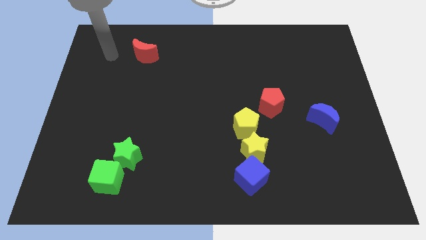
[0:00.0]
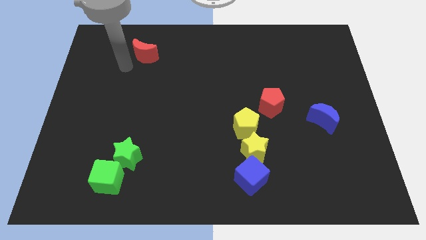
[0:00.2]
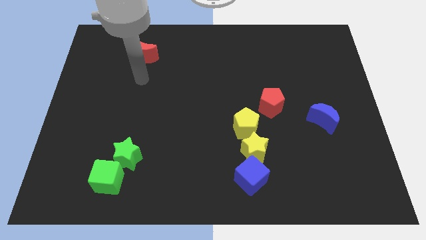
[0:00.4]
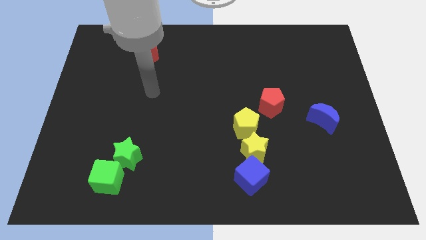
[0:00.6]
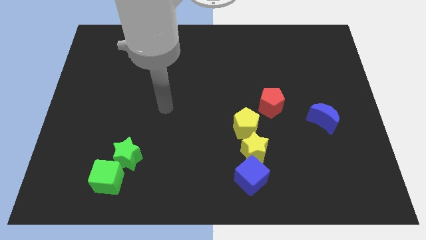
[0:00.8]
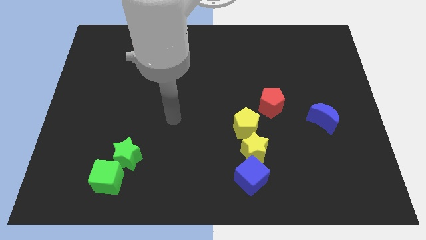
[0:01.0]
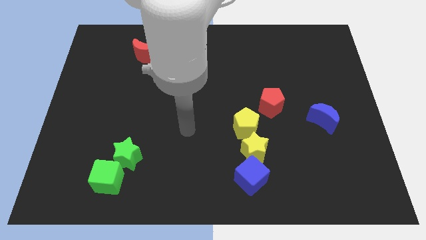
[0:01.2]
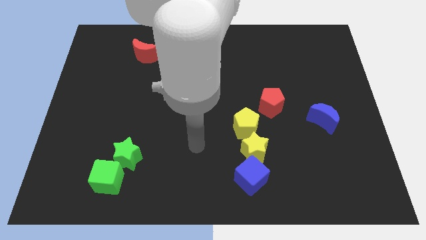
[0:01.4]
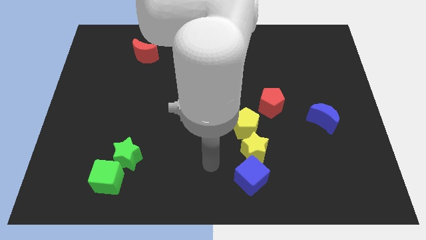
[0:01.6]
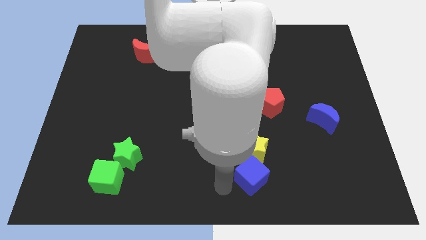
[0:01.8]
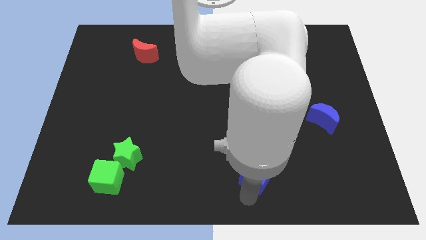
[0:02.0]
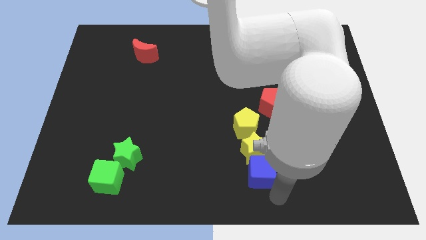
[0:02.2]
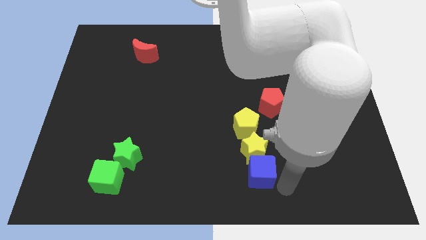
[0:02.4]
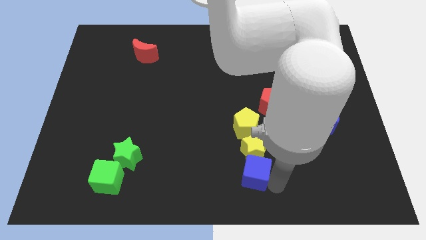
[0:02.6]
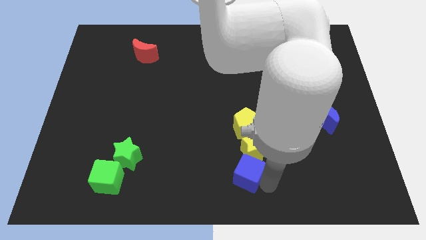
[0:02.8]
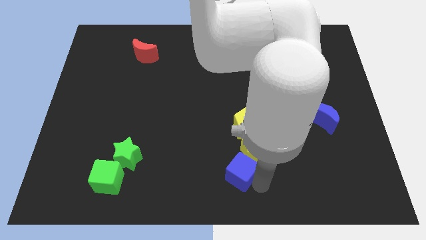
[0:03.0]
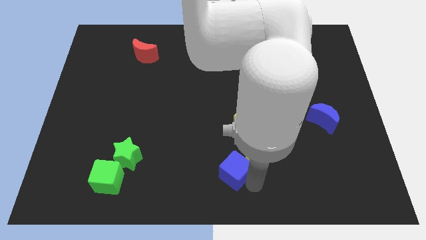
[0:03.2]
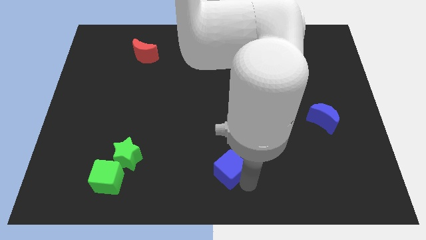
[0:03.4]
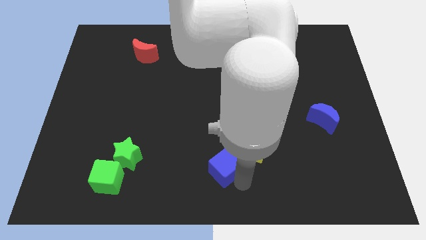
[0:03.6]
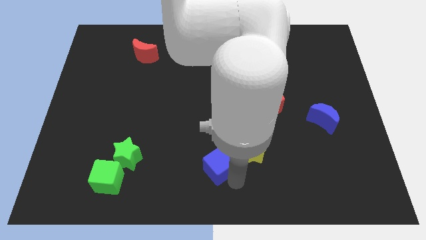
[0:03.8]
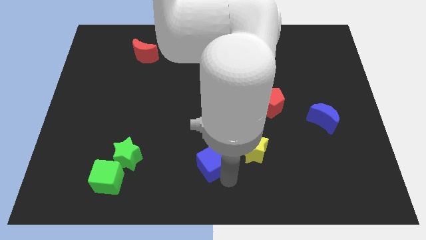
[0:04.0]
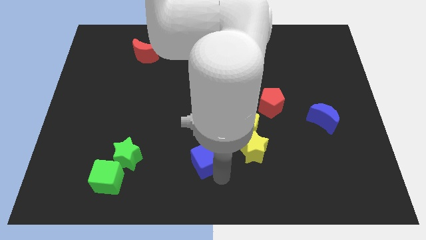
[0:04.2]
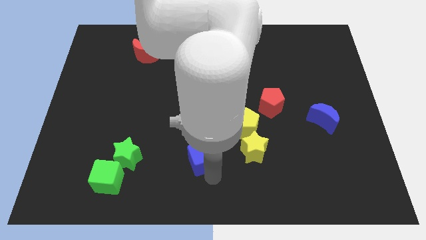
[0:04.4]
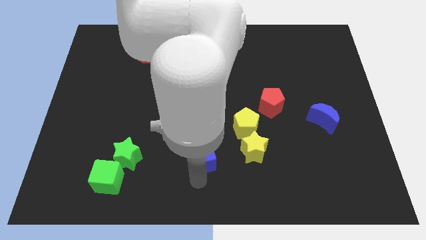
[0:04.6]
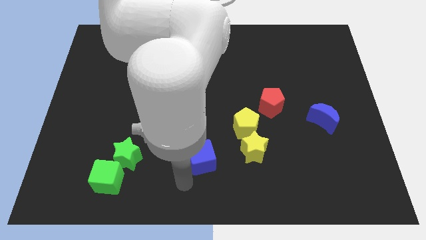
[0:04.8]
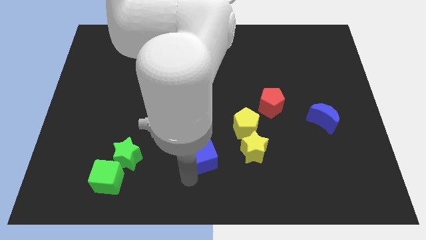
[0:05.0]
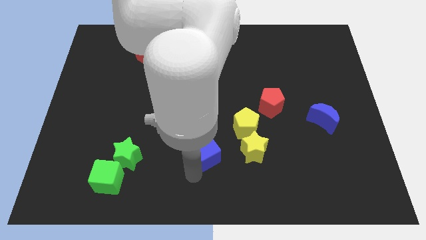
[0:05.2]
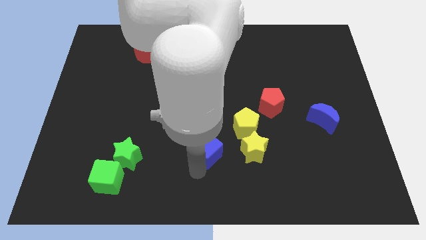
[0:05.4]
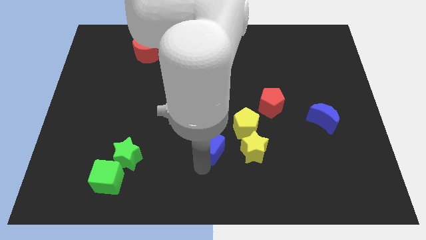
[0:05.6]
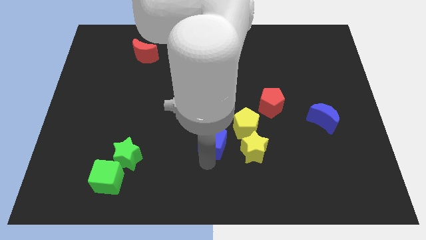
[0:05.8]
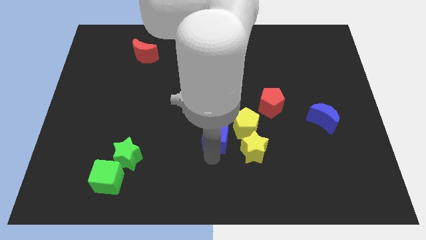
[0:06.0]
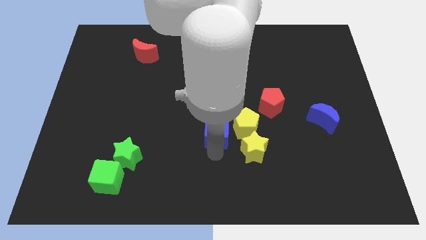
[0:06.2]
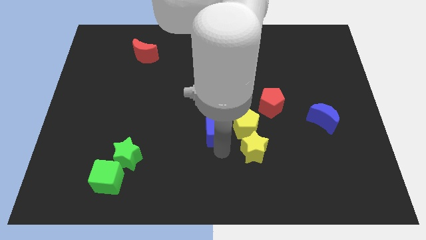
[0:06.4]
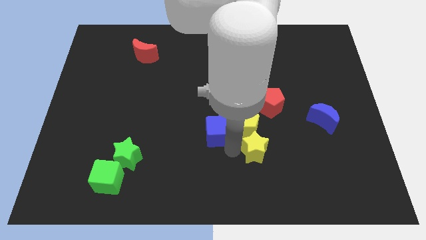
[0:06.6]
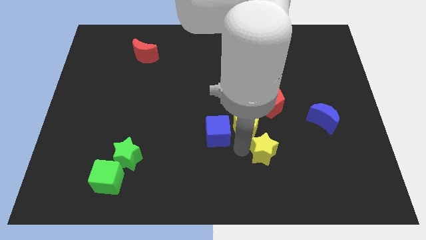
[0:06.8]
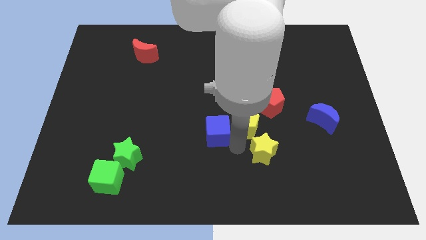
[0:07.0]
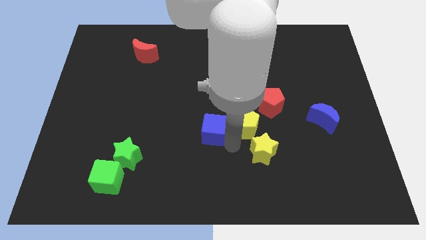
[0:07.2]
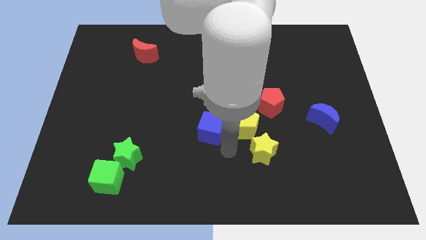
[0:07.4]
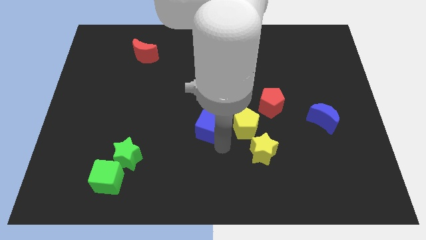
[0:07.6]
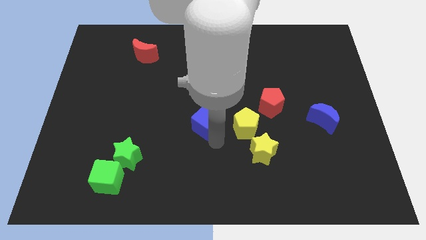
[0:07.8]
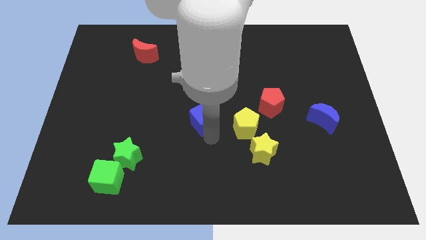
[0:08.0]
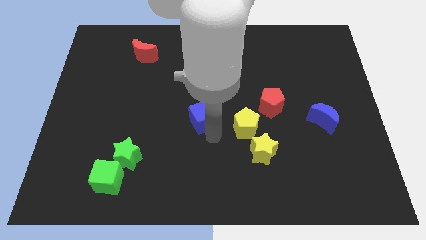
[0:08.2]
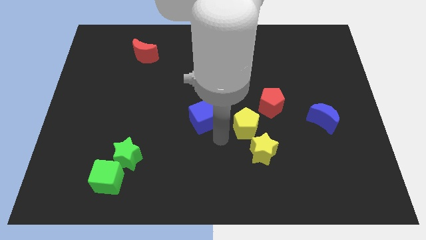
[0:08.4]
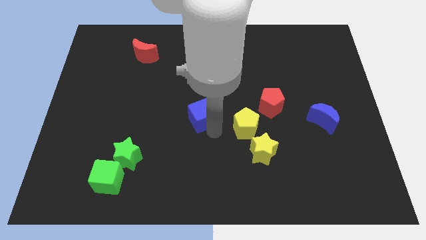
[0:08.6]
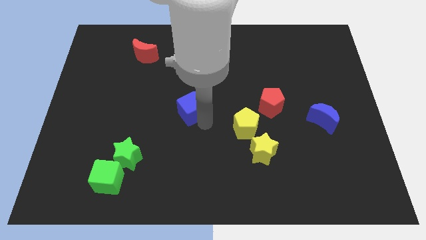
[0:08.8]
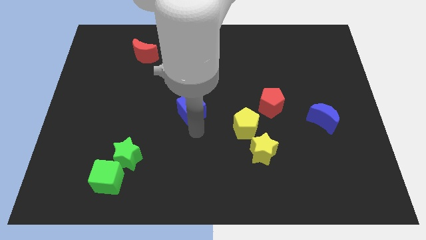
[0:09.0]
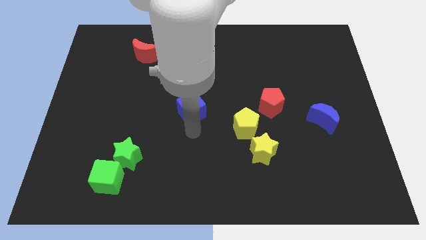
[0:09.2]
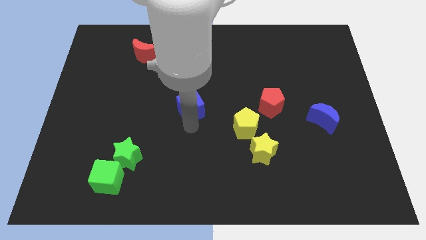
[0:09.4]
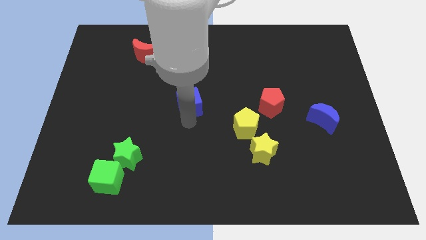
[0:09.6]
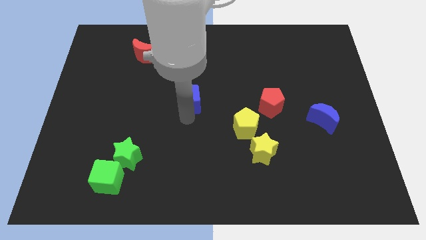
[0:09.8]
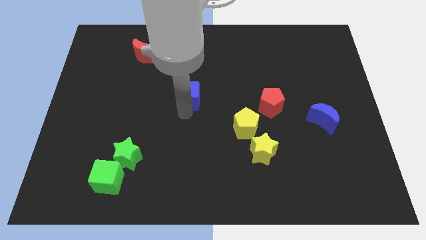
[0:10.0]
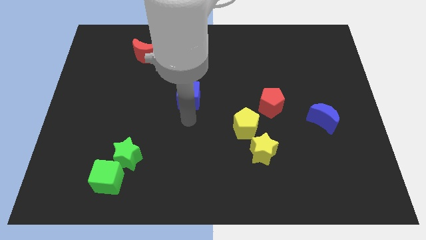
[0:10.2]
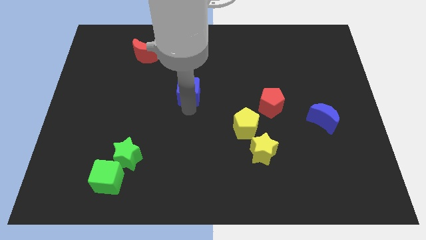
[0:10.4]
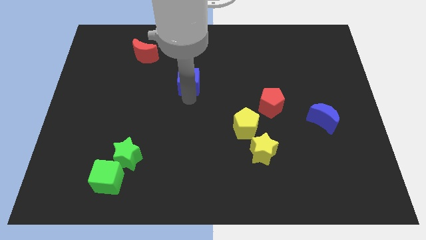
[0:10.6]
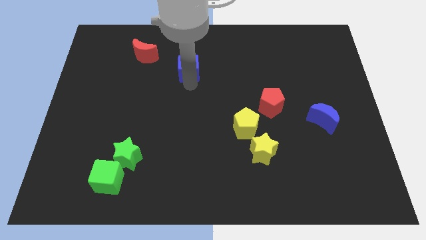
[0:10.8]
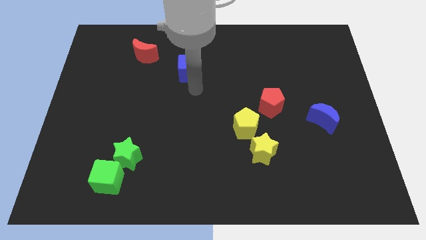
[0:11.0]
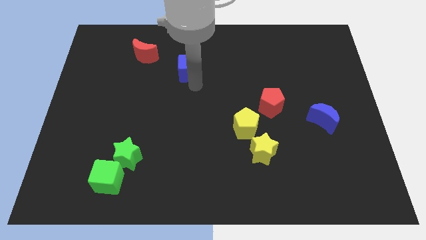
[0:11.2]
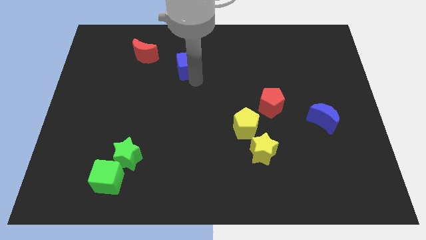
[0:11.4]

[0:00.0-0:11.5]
push the blue cube to the right of the red moon

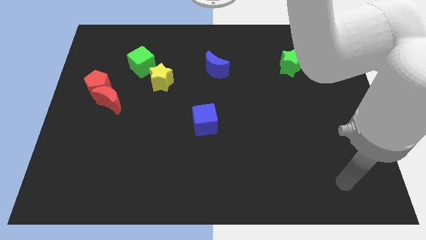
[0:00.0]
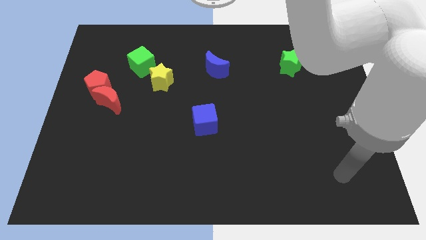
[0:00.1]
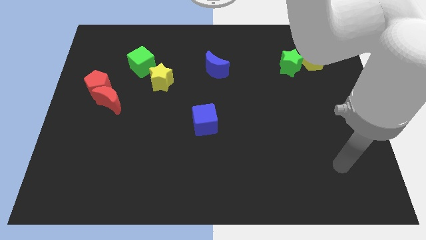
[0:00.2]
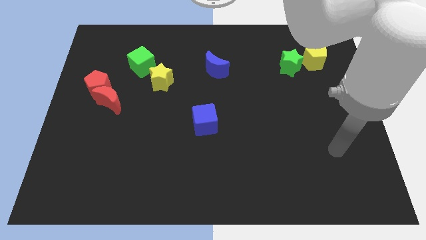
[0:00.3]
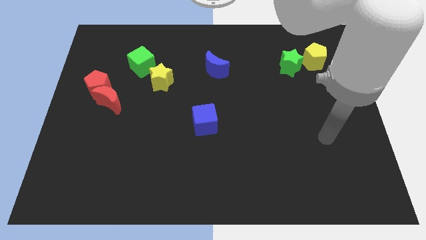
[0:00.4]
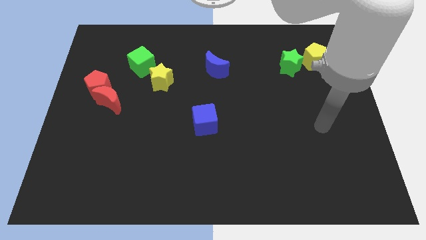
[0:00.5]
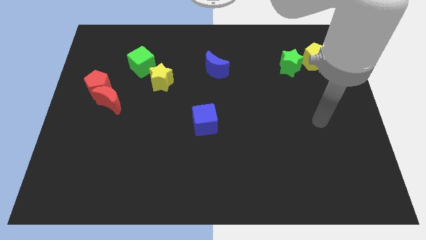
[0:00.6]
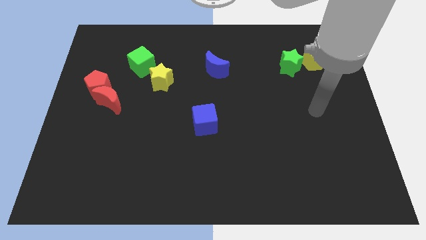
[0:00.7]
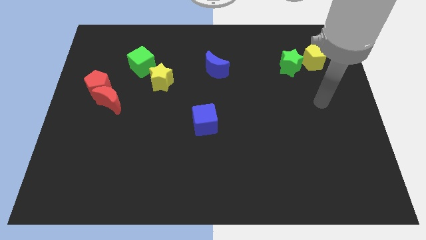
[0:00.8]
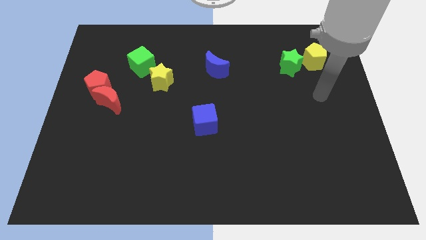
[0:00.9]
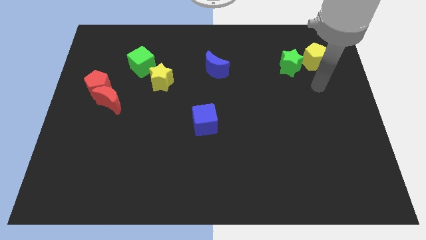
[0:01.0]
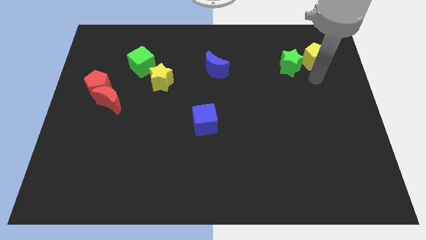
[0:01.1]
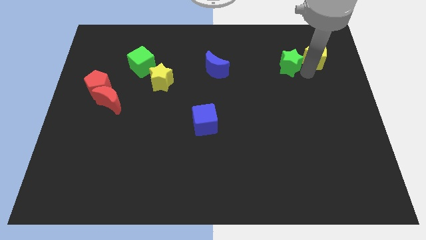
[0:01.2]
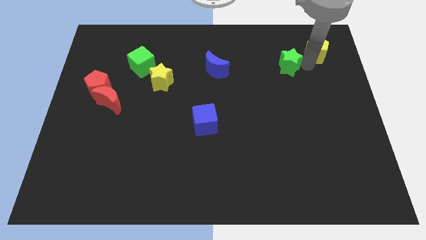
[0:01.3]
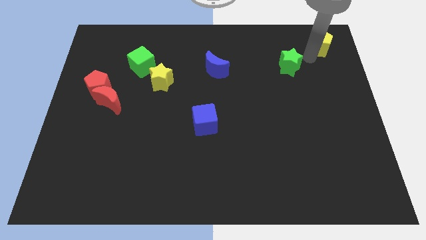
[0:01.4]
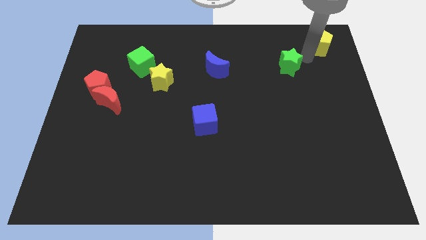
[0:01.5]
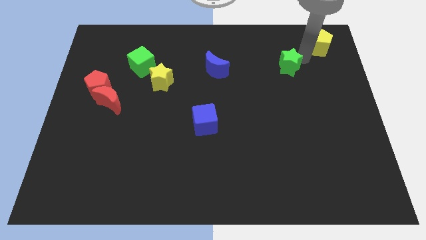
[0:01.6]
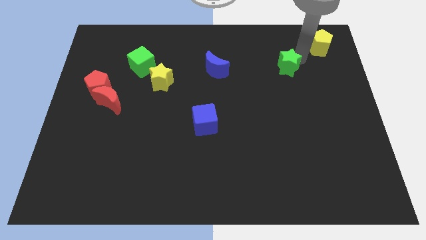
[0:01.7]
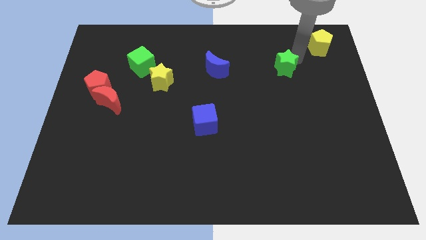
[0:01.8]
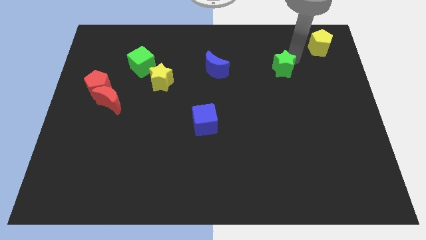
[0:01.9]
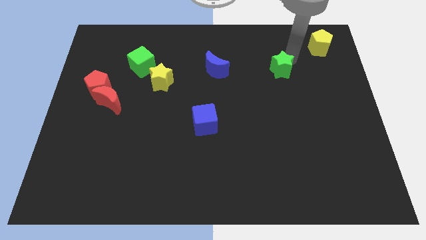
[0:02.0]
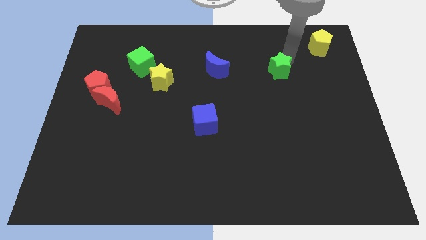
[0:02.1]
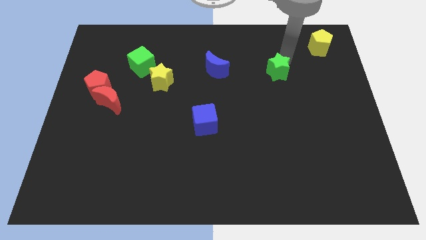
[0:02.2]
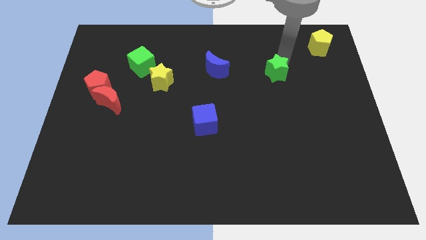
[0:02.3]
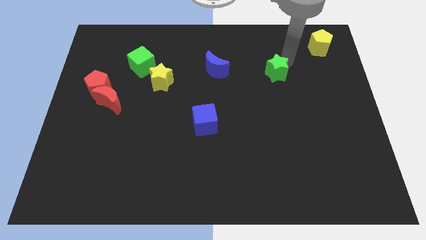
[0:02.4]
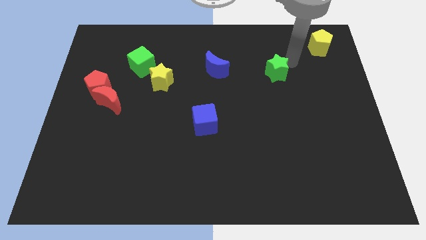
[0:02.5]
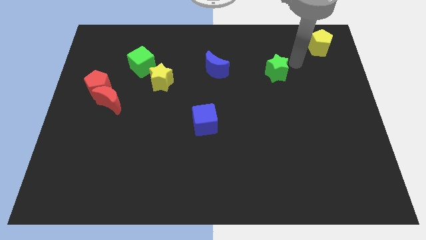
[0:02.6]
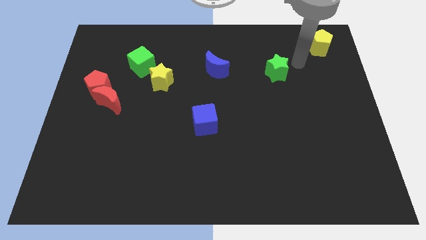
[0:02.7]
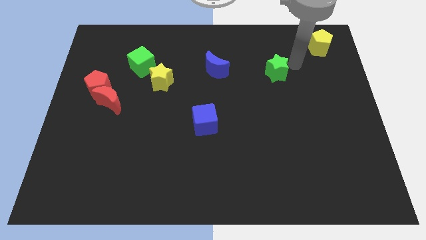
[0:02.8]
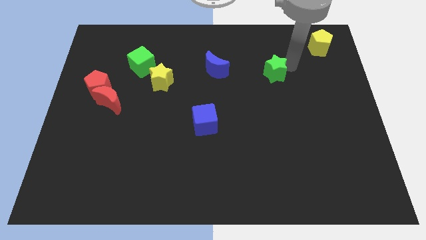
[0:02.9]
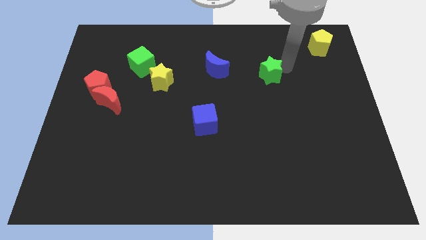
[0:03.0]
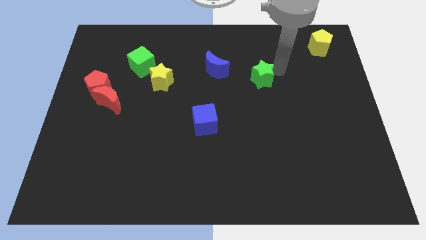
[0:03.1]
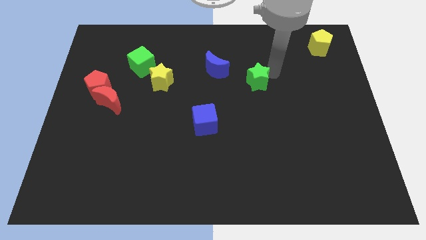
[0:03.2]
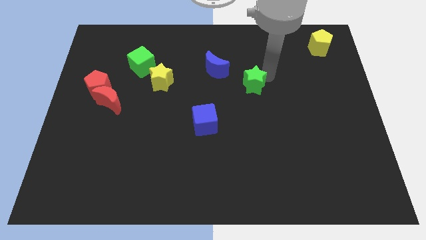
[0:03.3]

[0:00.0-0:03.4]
push the green star to the bottom right side of the blue moon
